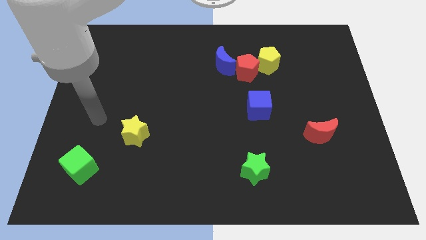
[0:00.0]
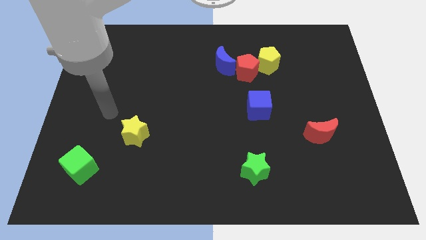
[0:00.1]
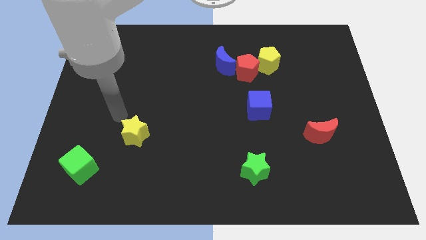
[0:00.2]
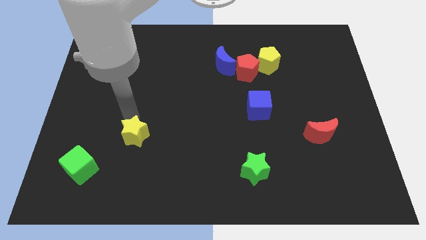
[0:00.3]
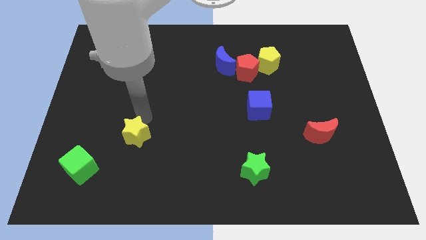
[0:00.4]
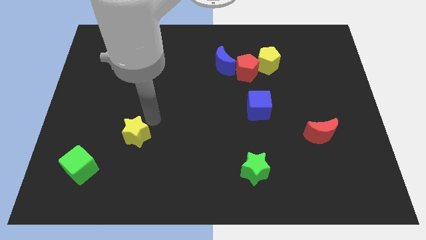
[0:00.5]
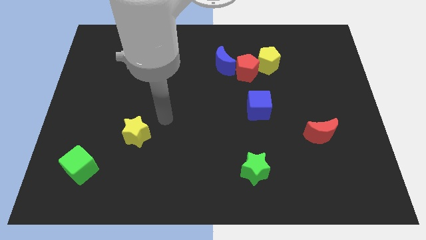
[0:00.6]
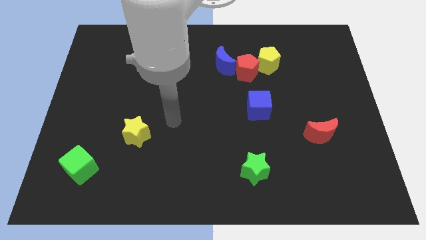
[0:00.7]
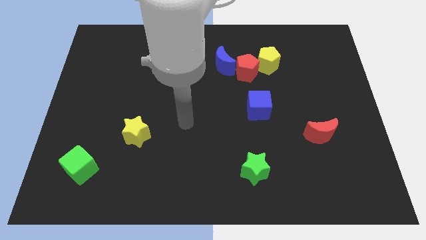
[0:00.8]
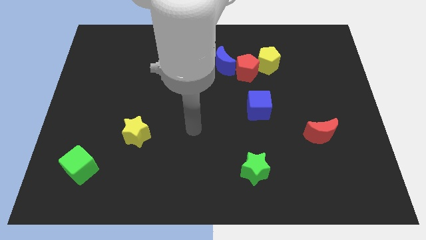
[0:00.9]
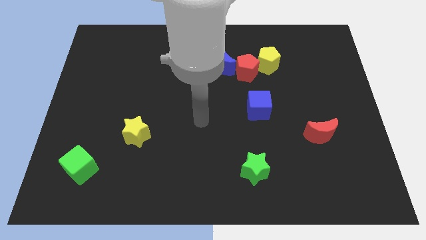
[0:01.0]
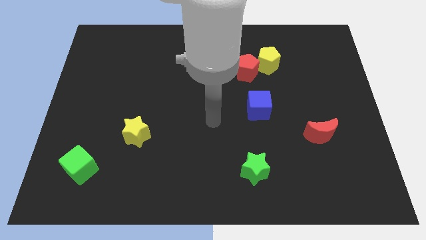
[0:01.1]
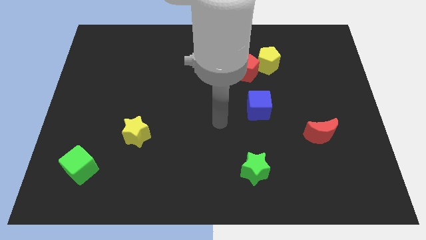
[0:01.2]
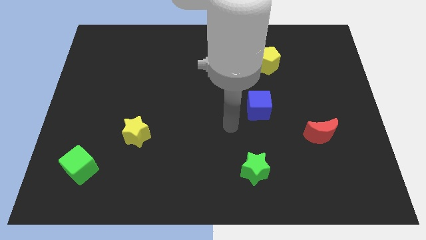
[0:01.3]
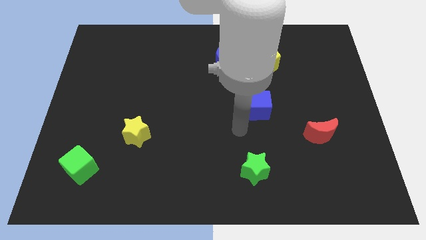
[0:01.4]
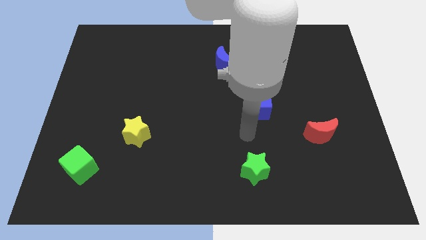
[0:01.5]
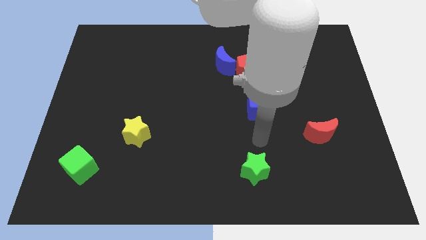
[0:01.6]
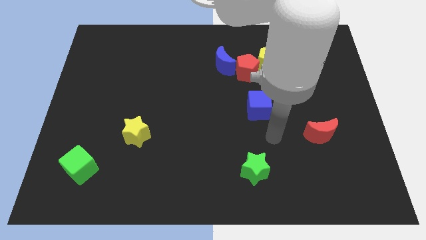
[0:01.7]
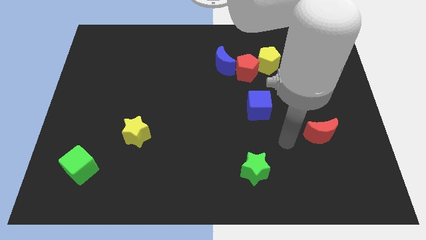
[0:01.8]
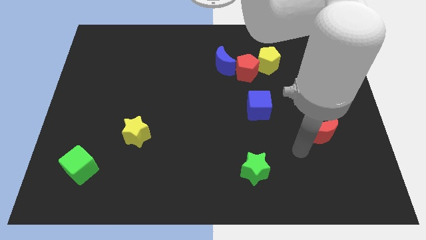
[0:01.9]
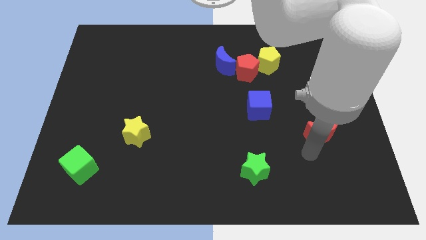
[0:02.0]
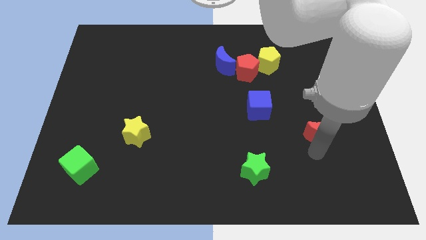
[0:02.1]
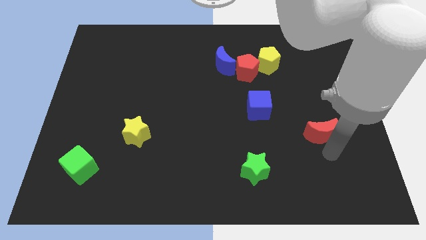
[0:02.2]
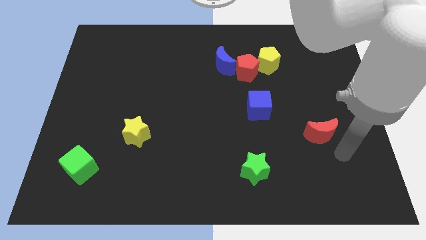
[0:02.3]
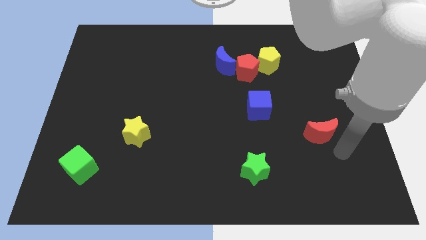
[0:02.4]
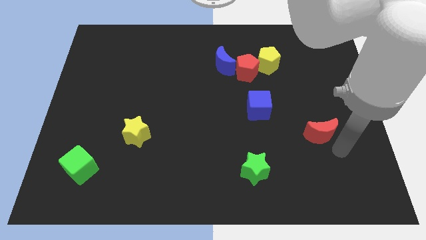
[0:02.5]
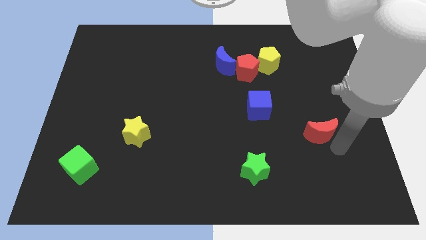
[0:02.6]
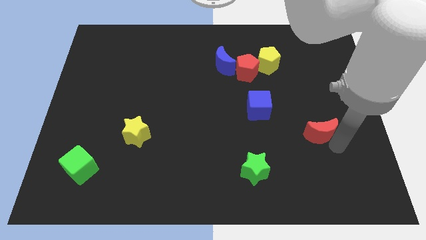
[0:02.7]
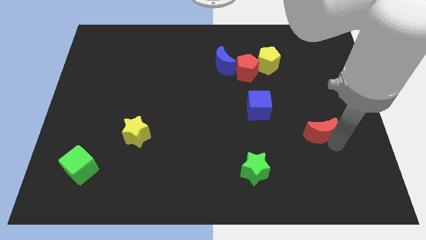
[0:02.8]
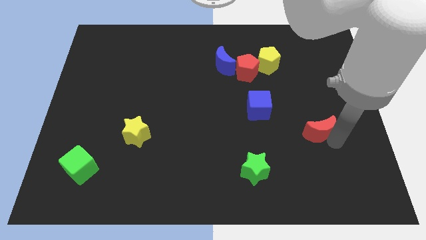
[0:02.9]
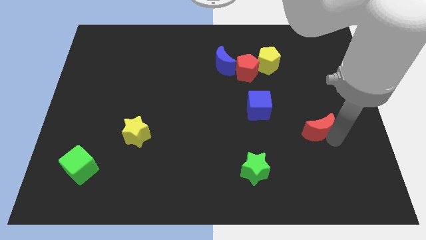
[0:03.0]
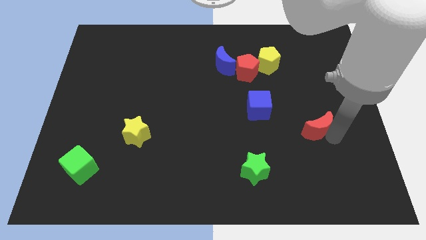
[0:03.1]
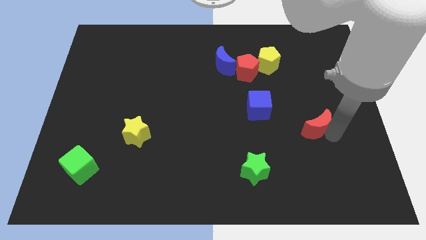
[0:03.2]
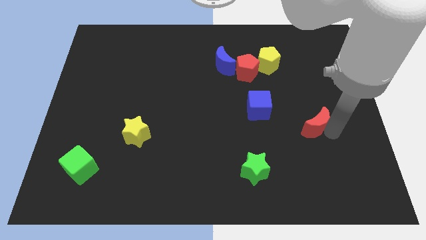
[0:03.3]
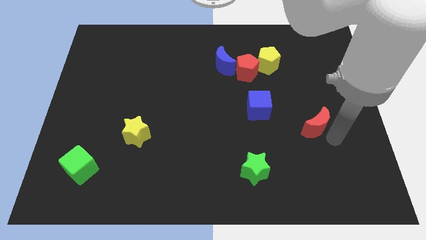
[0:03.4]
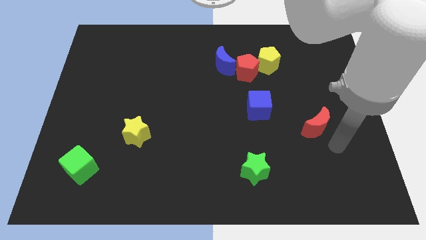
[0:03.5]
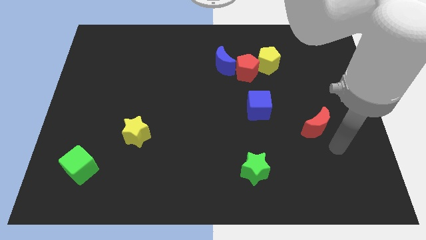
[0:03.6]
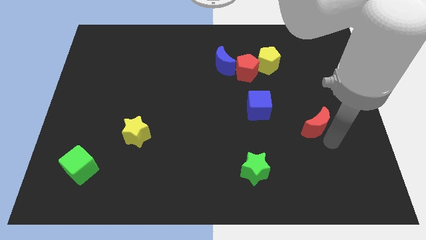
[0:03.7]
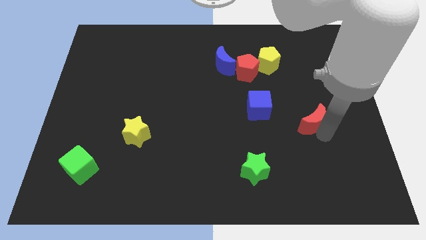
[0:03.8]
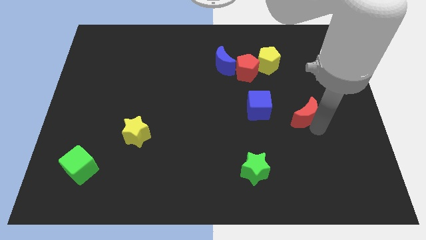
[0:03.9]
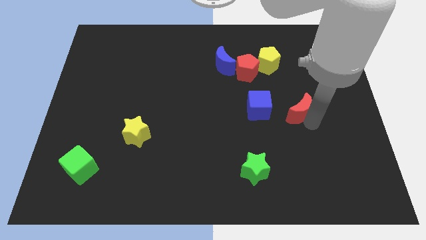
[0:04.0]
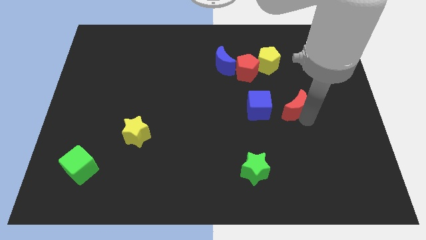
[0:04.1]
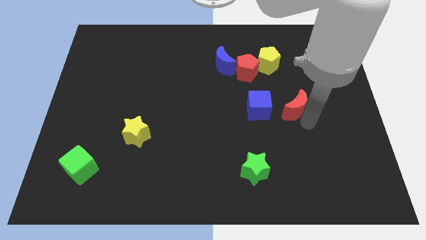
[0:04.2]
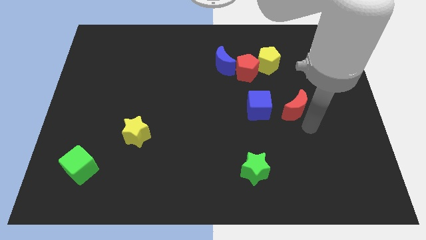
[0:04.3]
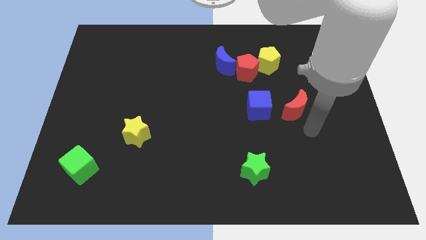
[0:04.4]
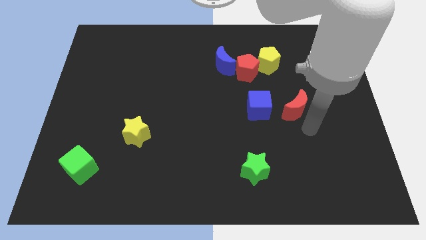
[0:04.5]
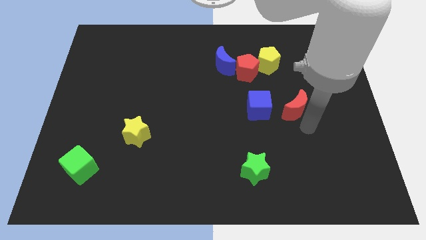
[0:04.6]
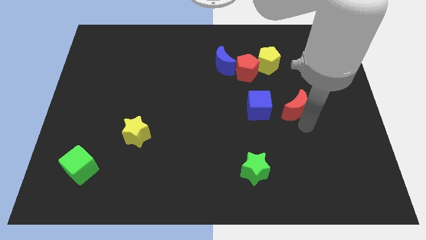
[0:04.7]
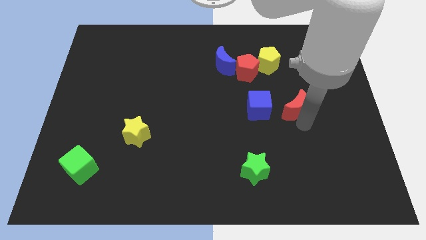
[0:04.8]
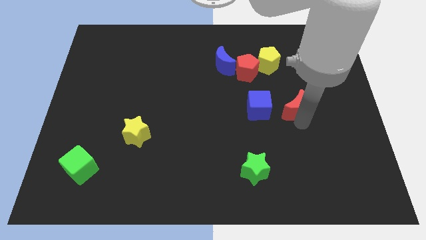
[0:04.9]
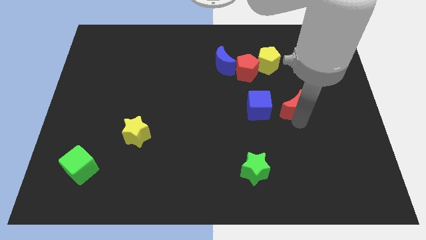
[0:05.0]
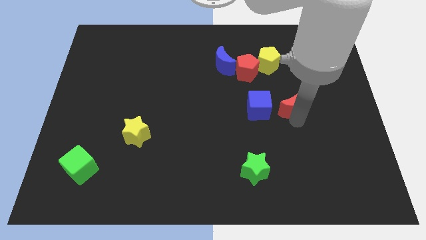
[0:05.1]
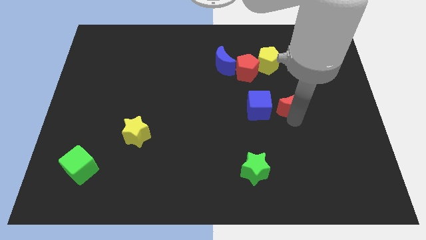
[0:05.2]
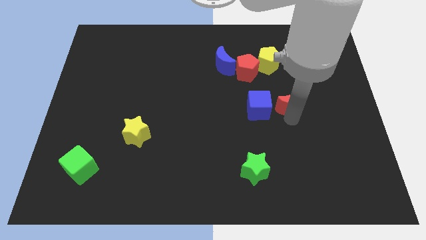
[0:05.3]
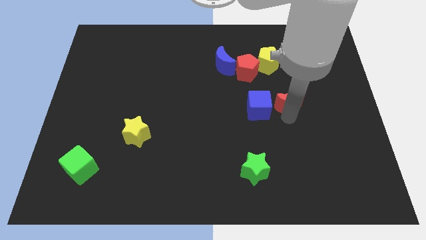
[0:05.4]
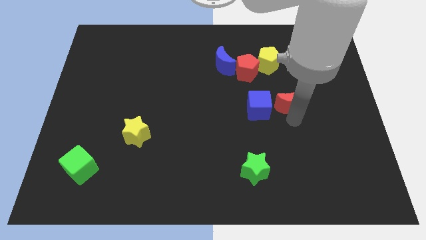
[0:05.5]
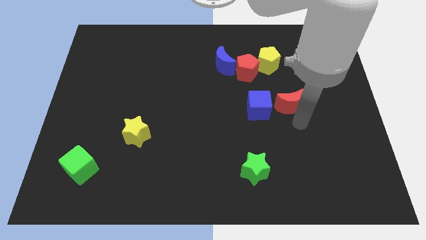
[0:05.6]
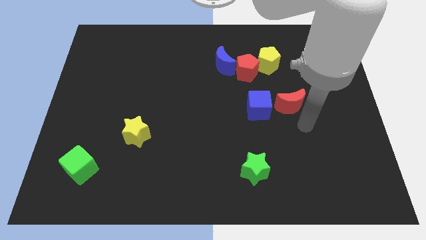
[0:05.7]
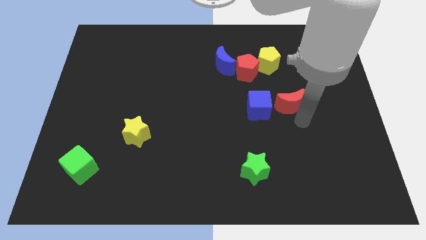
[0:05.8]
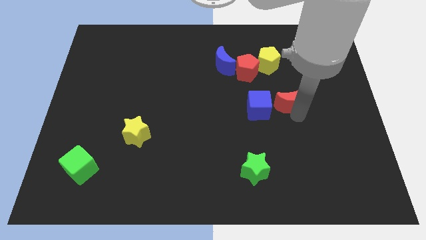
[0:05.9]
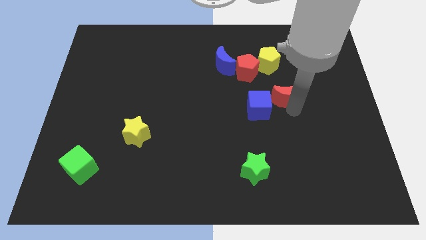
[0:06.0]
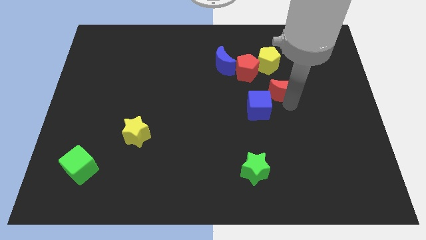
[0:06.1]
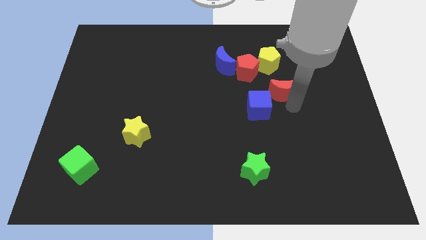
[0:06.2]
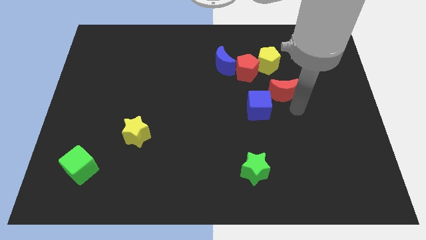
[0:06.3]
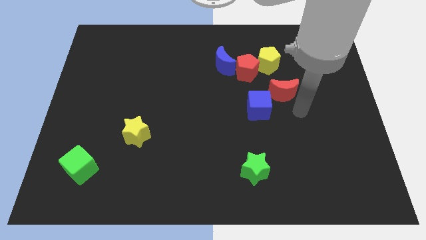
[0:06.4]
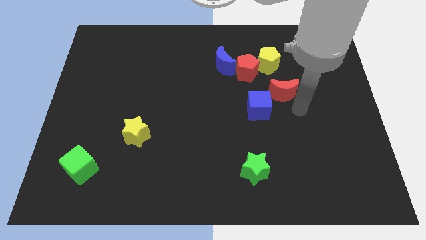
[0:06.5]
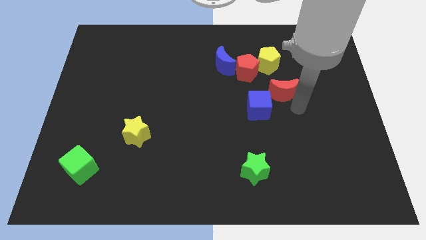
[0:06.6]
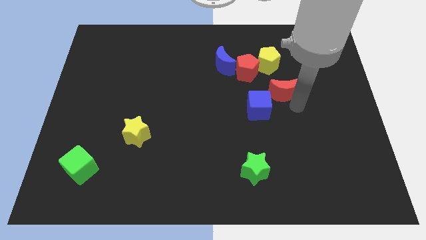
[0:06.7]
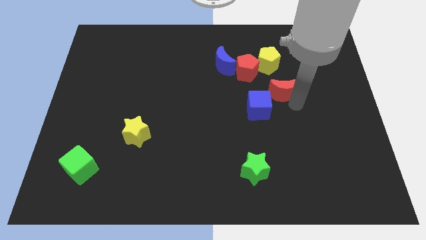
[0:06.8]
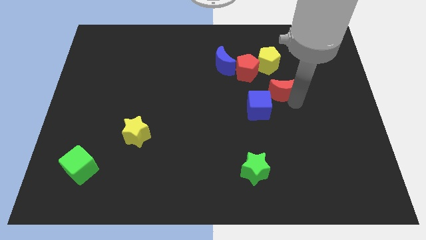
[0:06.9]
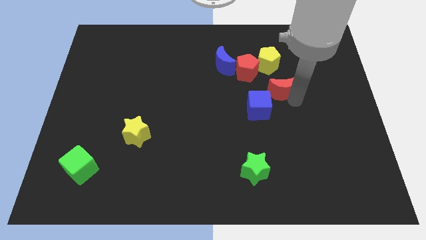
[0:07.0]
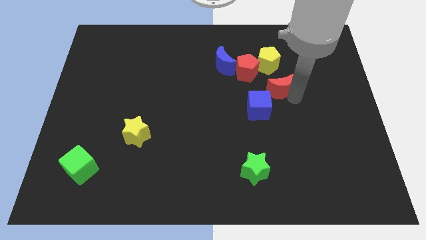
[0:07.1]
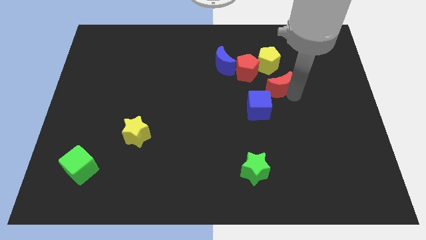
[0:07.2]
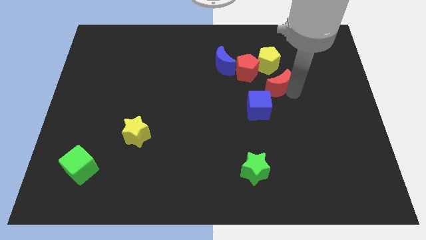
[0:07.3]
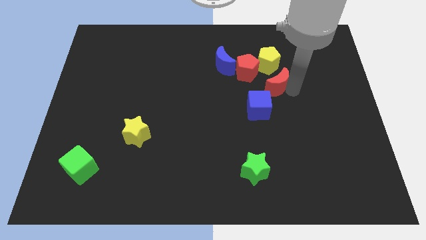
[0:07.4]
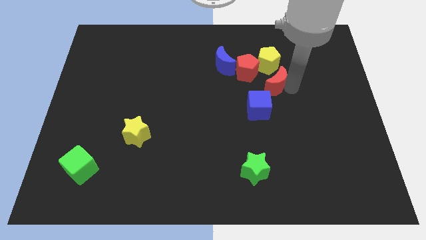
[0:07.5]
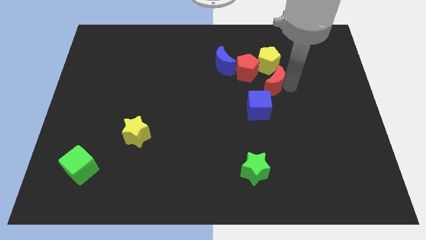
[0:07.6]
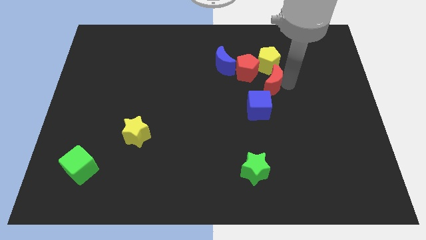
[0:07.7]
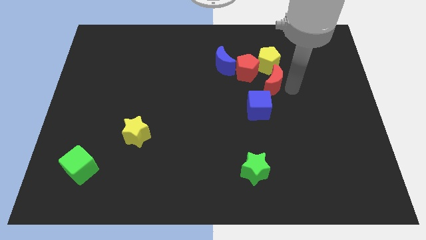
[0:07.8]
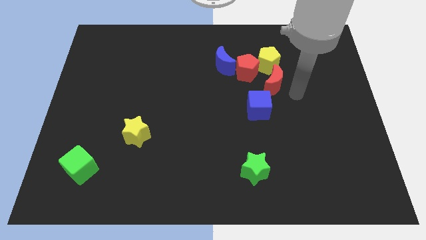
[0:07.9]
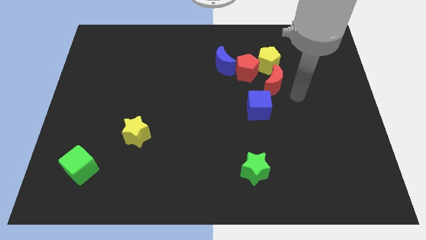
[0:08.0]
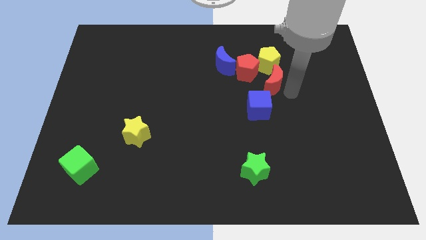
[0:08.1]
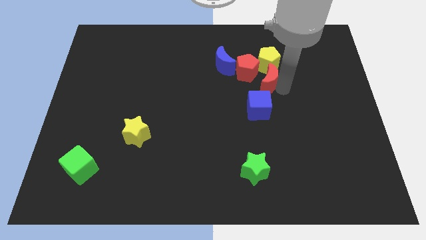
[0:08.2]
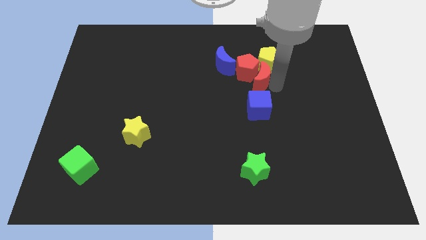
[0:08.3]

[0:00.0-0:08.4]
push the red moon to the red pentagon
